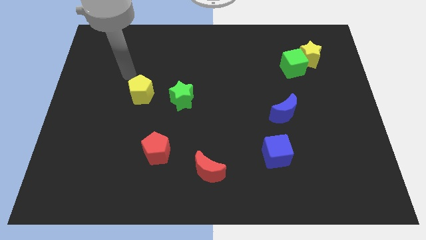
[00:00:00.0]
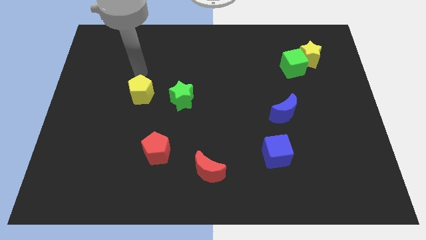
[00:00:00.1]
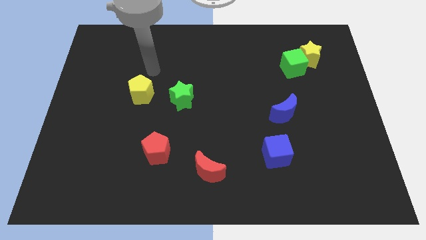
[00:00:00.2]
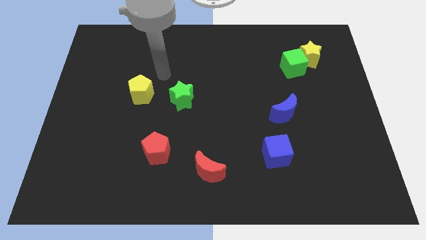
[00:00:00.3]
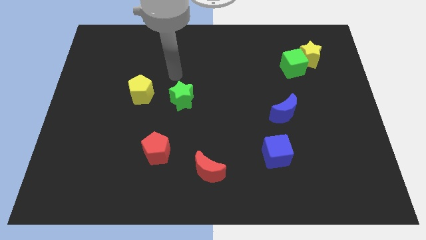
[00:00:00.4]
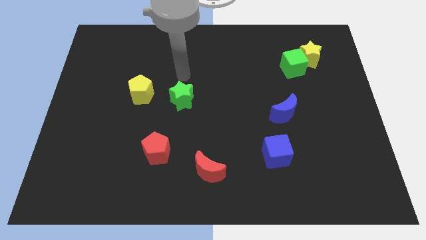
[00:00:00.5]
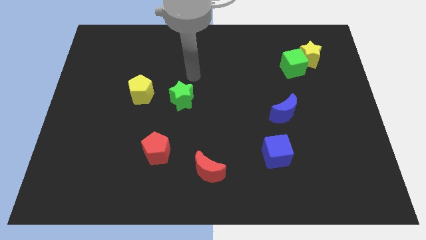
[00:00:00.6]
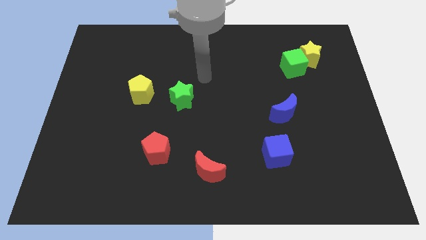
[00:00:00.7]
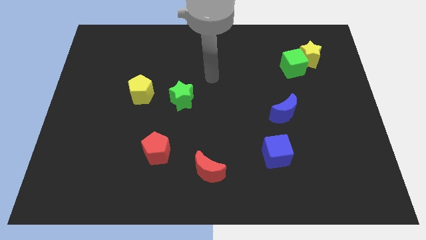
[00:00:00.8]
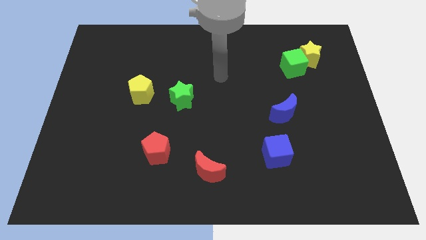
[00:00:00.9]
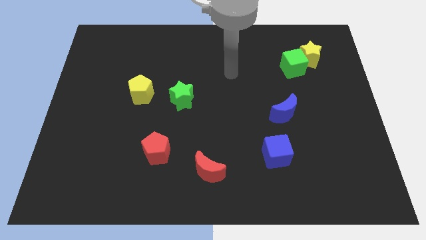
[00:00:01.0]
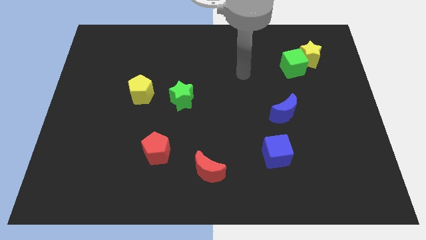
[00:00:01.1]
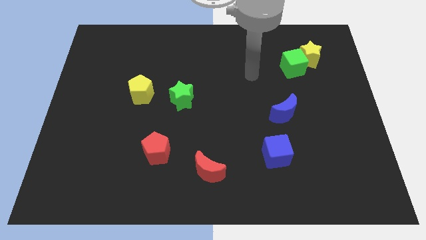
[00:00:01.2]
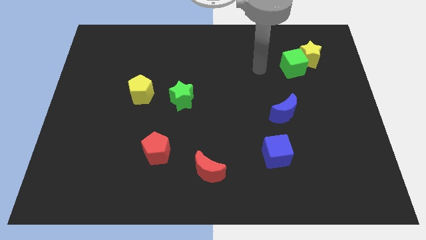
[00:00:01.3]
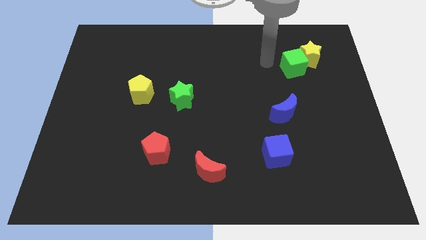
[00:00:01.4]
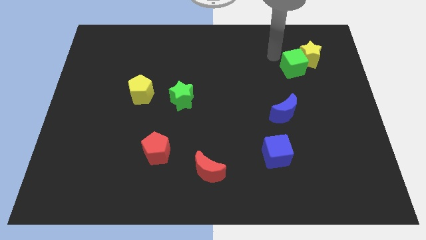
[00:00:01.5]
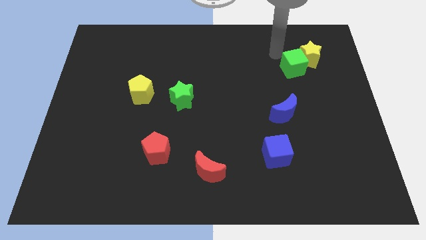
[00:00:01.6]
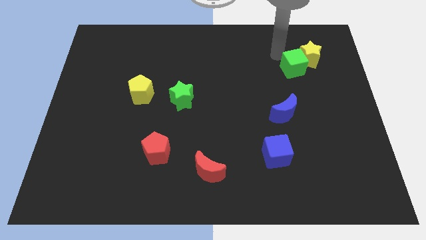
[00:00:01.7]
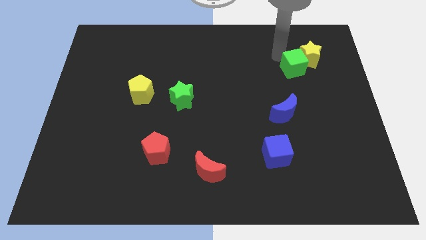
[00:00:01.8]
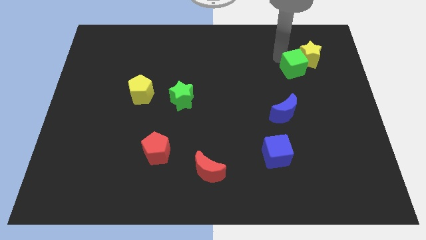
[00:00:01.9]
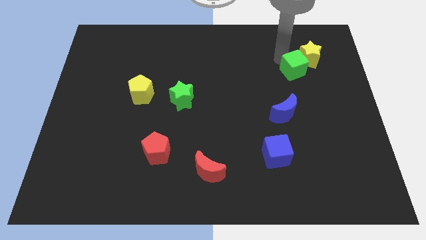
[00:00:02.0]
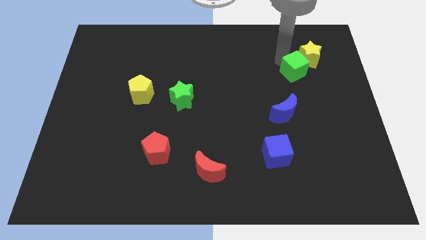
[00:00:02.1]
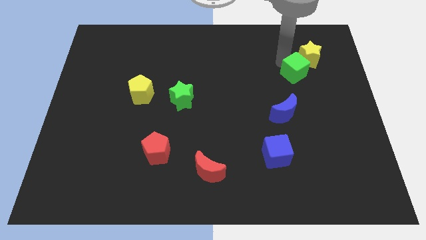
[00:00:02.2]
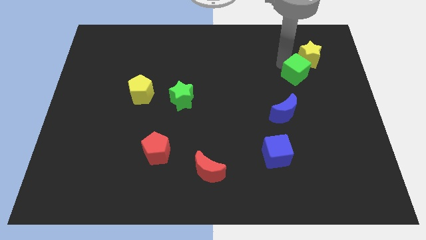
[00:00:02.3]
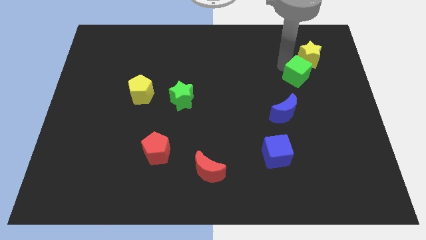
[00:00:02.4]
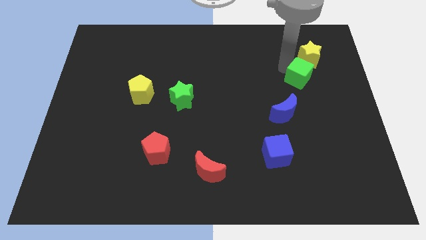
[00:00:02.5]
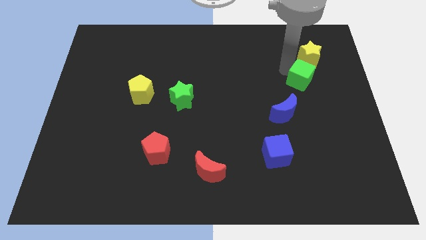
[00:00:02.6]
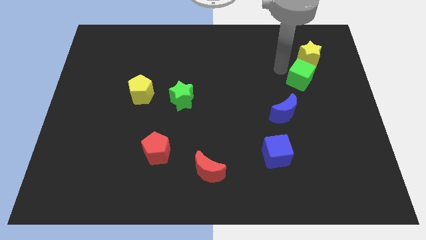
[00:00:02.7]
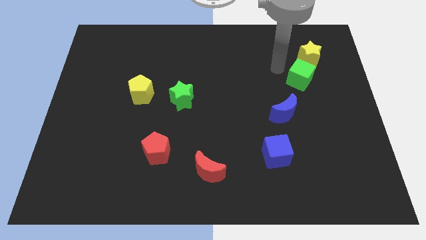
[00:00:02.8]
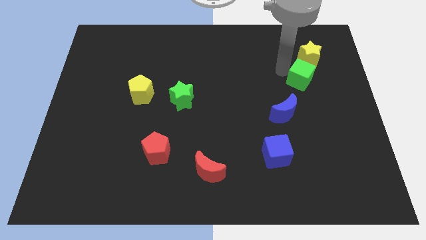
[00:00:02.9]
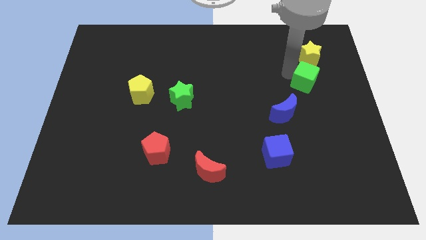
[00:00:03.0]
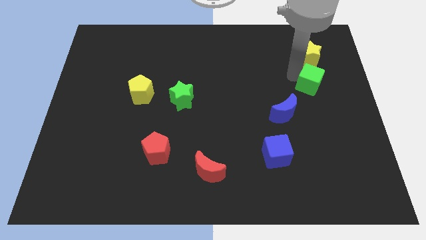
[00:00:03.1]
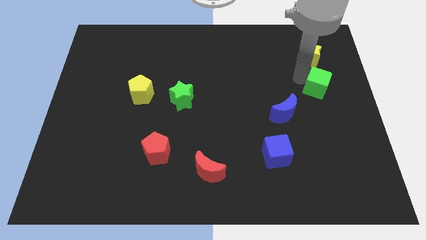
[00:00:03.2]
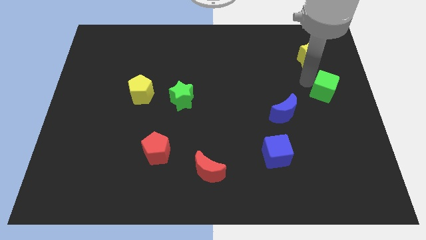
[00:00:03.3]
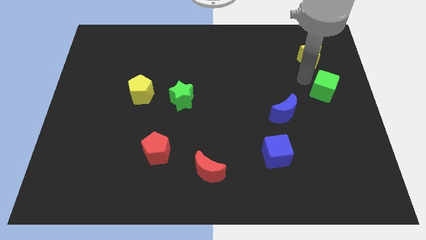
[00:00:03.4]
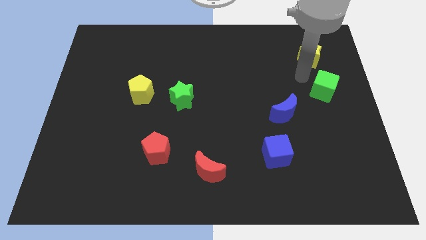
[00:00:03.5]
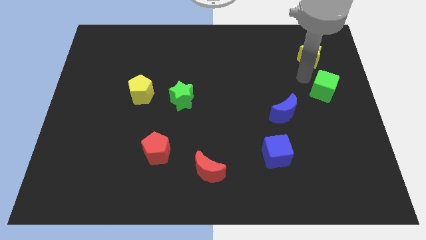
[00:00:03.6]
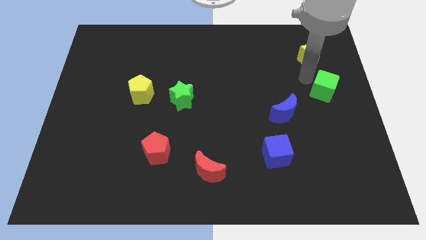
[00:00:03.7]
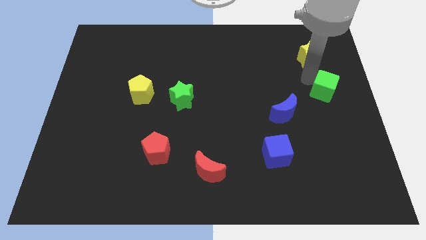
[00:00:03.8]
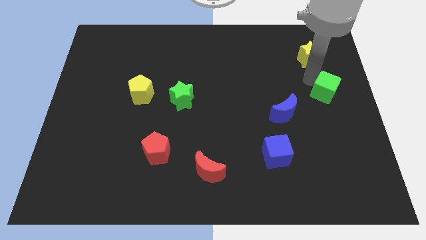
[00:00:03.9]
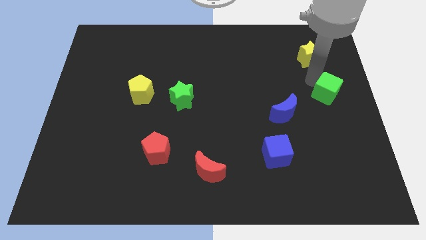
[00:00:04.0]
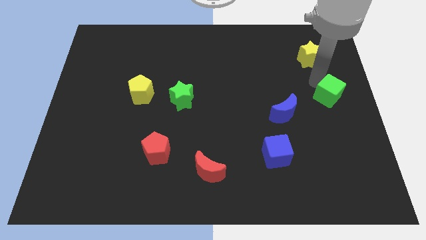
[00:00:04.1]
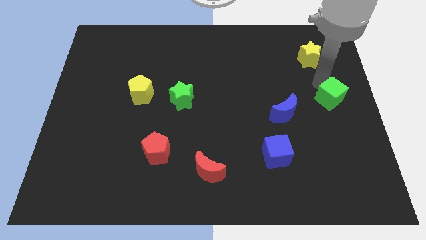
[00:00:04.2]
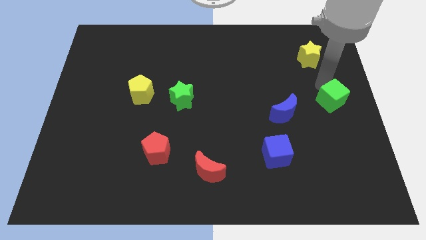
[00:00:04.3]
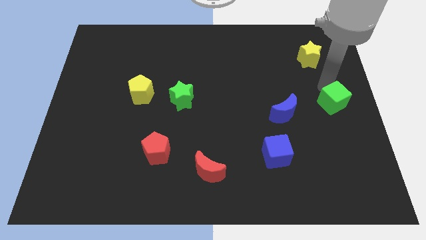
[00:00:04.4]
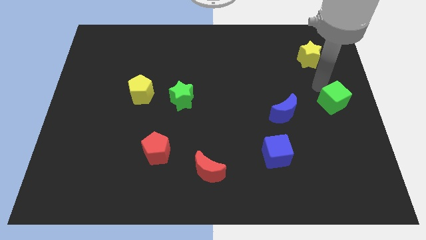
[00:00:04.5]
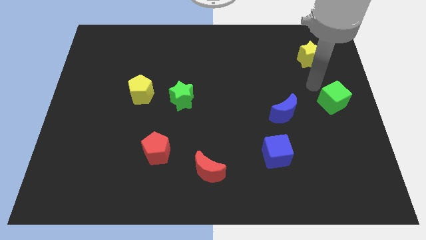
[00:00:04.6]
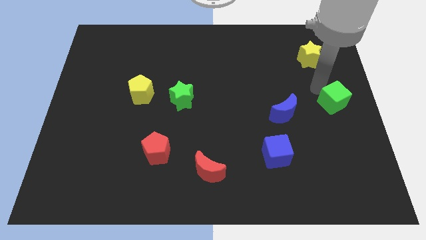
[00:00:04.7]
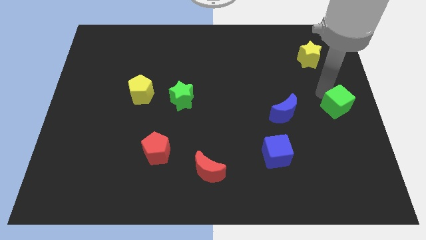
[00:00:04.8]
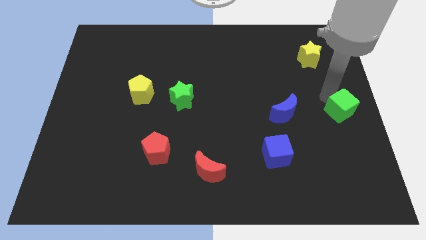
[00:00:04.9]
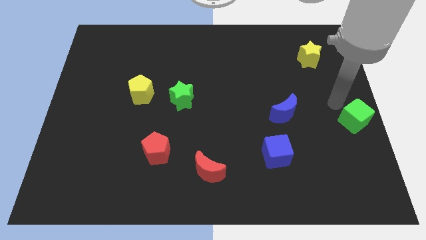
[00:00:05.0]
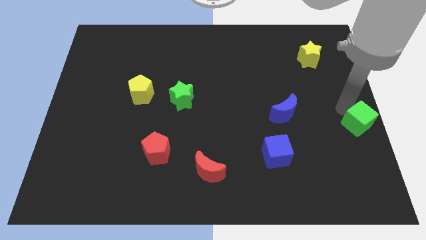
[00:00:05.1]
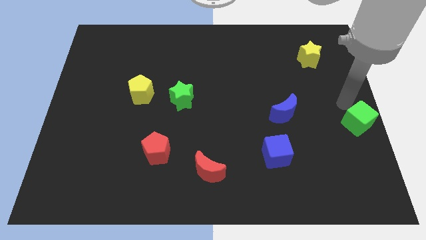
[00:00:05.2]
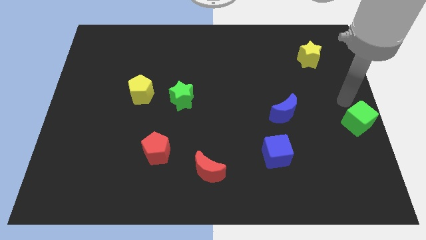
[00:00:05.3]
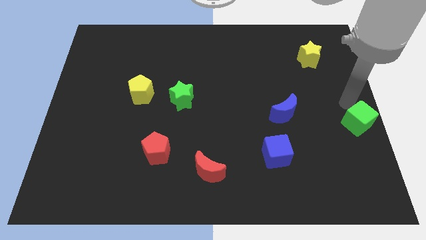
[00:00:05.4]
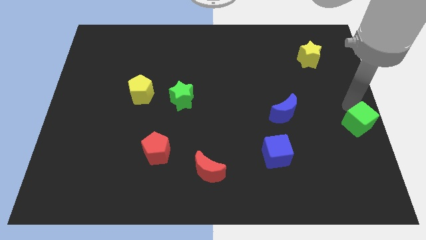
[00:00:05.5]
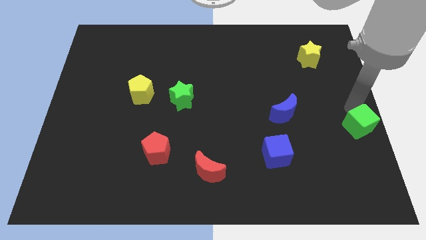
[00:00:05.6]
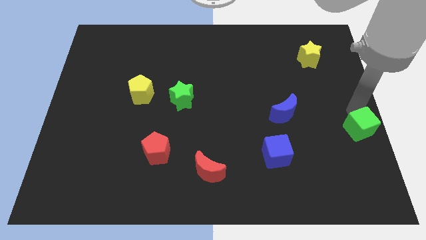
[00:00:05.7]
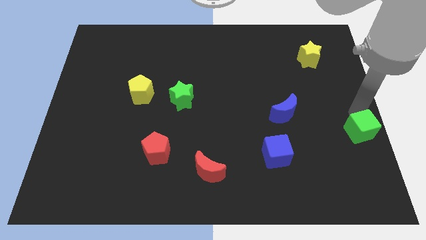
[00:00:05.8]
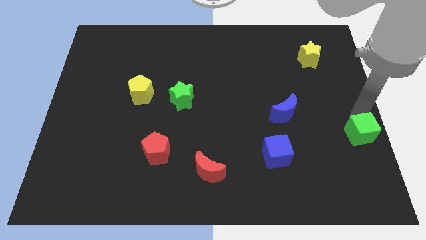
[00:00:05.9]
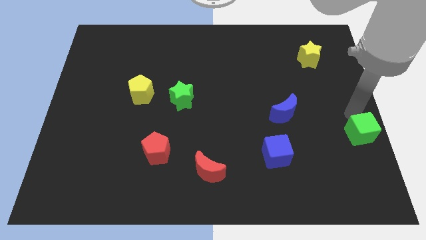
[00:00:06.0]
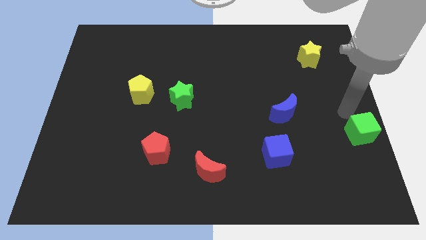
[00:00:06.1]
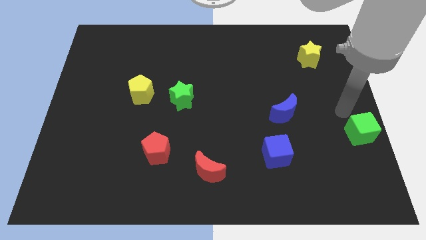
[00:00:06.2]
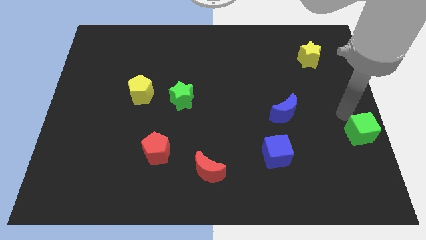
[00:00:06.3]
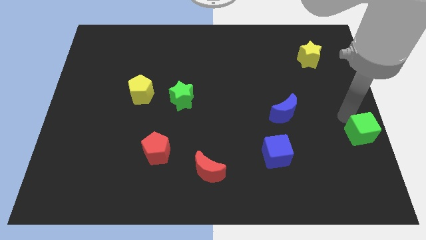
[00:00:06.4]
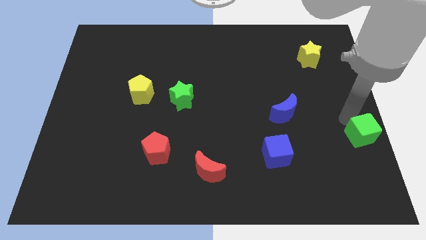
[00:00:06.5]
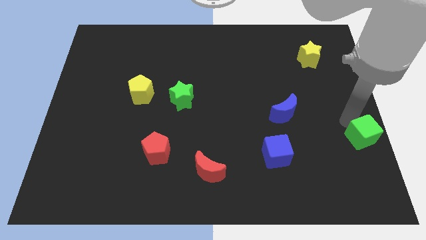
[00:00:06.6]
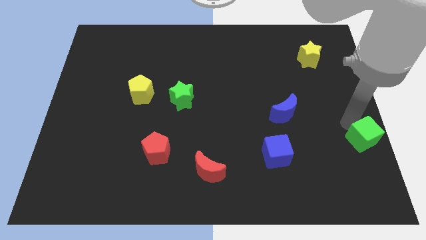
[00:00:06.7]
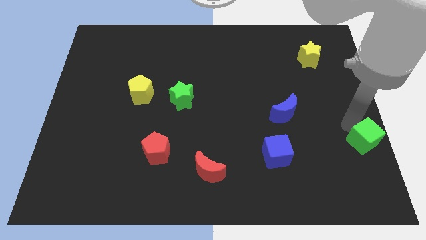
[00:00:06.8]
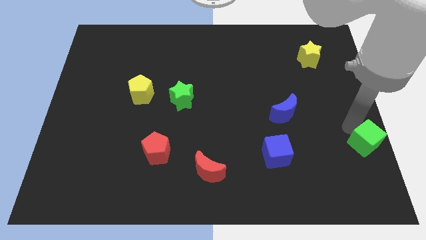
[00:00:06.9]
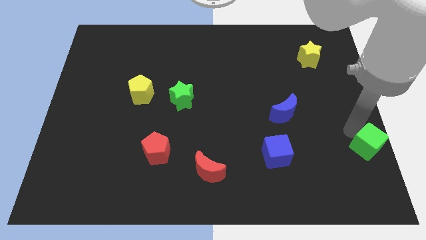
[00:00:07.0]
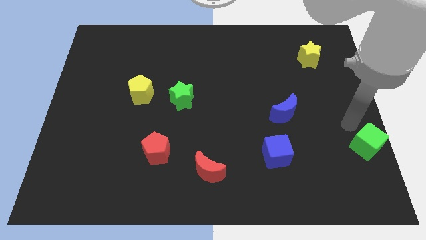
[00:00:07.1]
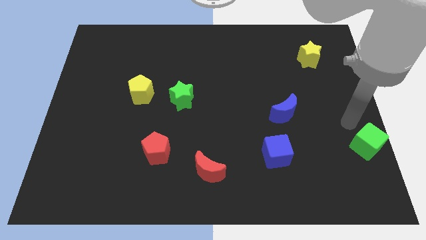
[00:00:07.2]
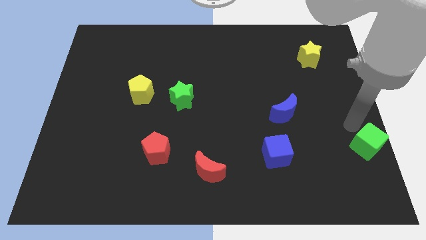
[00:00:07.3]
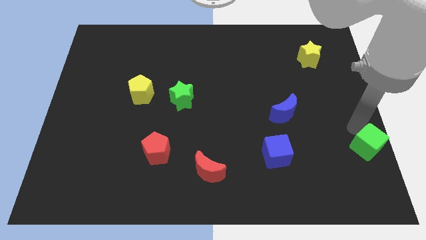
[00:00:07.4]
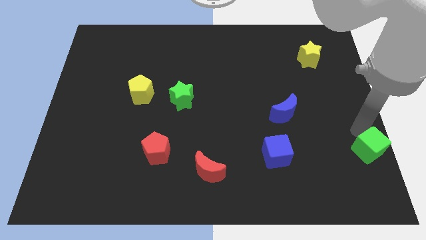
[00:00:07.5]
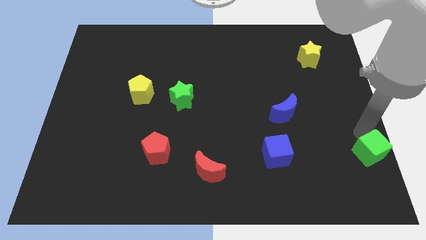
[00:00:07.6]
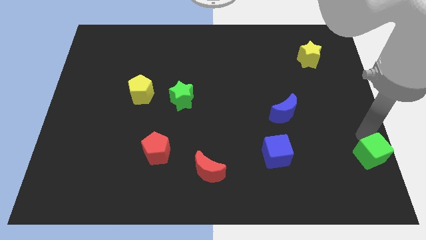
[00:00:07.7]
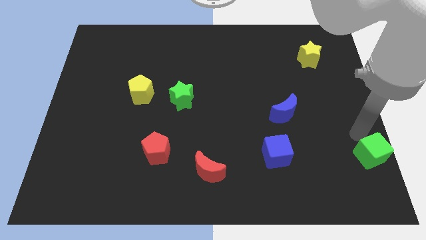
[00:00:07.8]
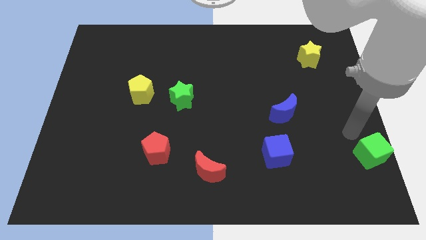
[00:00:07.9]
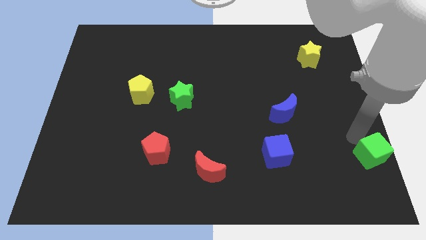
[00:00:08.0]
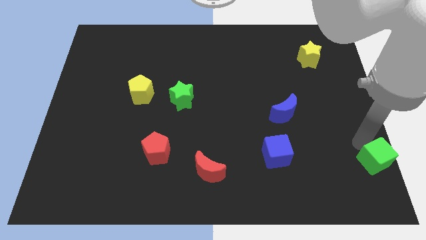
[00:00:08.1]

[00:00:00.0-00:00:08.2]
slide the green cube to the bottom right corner
